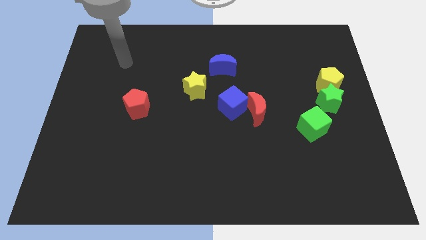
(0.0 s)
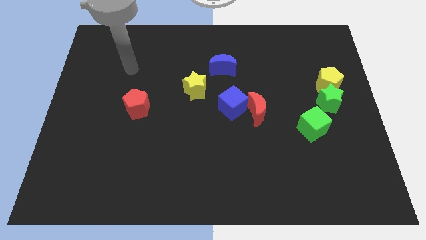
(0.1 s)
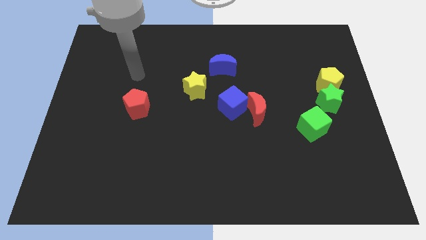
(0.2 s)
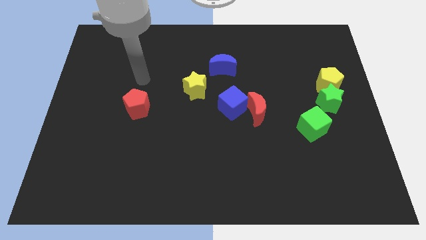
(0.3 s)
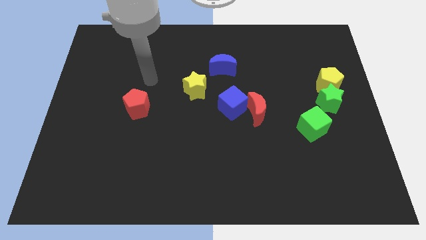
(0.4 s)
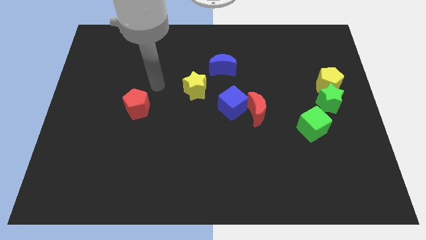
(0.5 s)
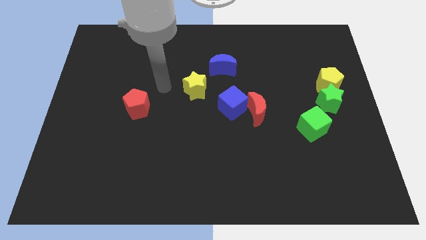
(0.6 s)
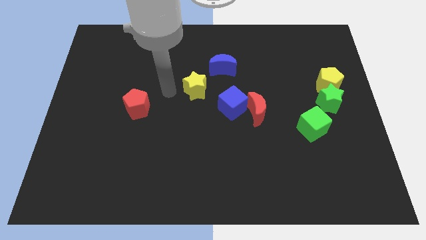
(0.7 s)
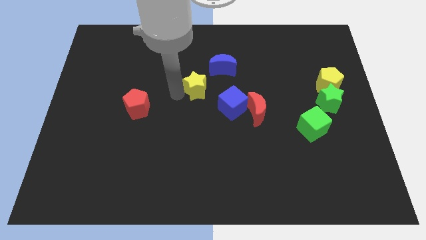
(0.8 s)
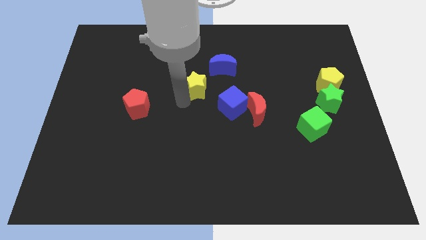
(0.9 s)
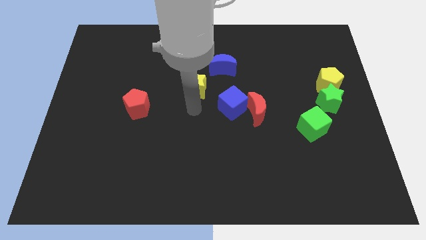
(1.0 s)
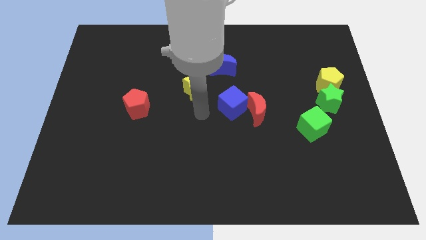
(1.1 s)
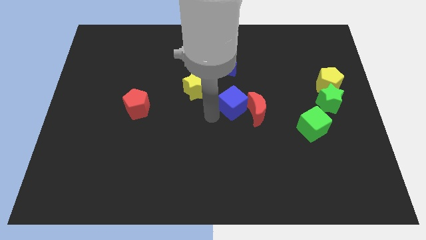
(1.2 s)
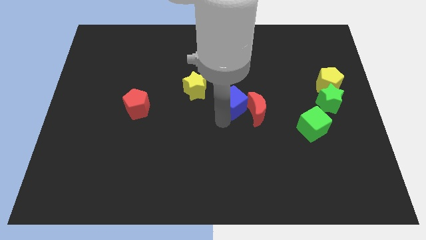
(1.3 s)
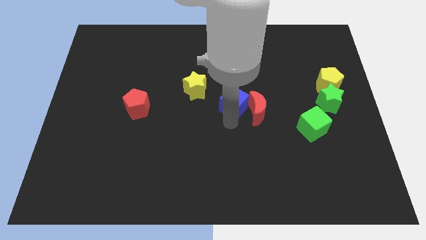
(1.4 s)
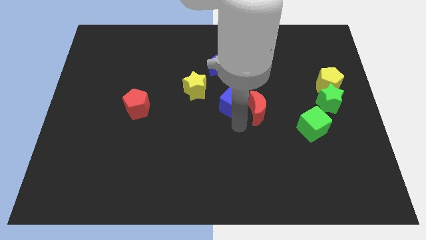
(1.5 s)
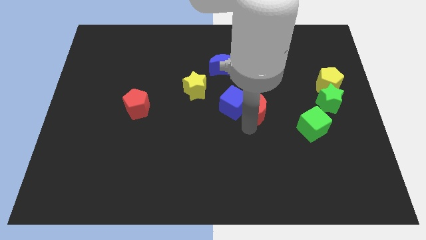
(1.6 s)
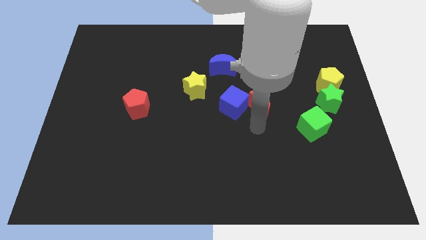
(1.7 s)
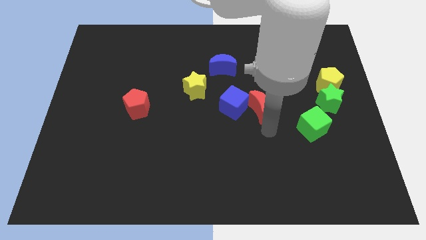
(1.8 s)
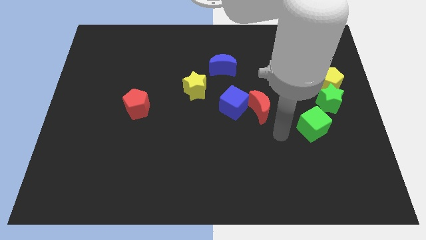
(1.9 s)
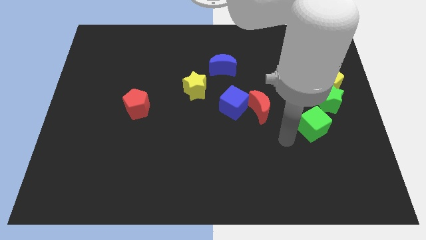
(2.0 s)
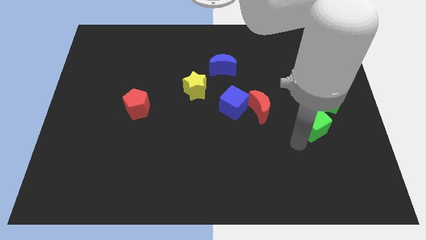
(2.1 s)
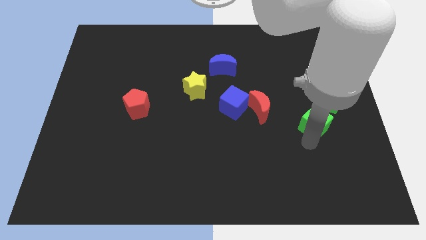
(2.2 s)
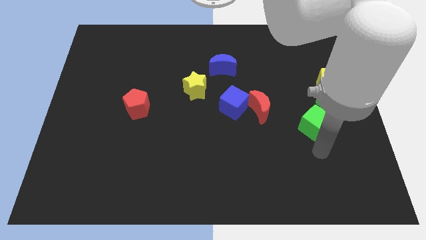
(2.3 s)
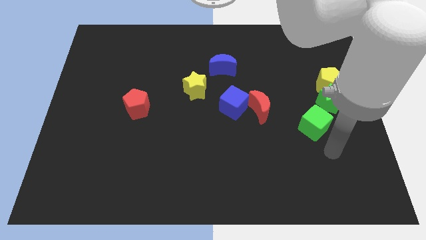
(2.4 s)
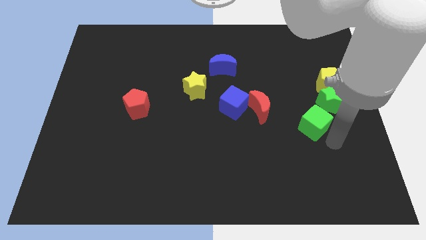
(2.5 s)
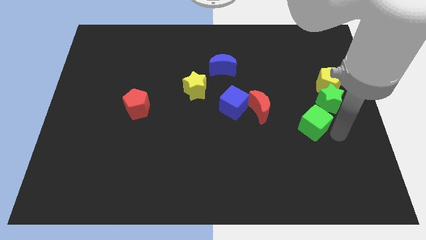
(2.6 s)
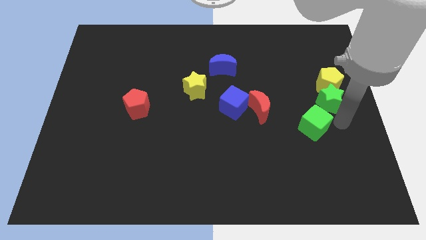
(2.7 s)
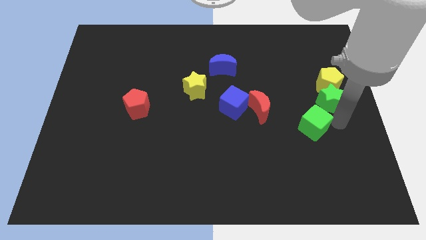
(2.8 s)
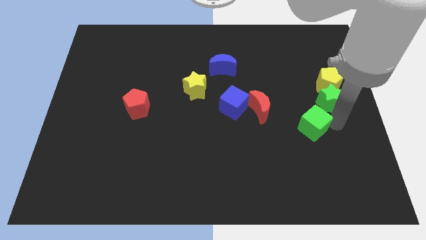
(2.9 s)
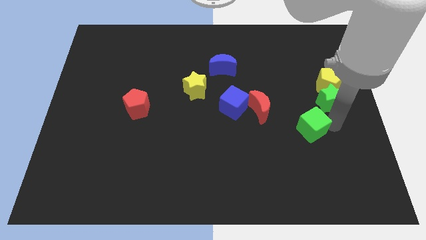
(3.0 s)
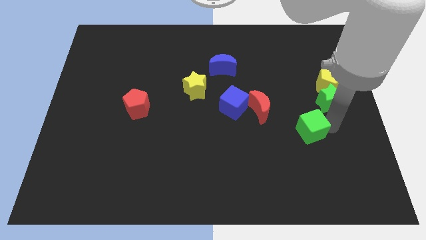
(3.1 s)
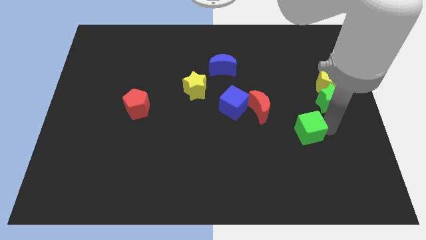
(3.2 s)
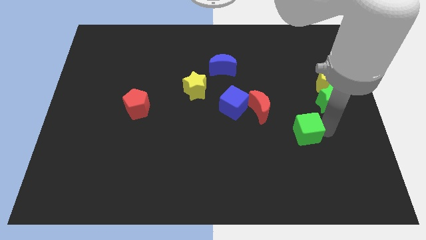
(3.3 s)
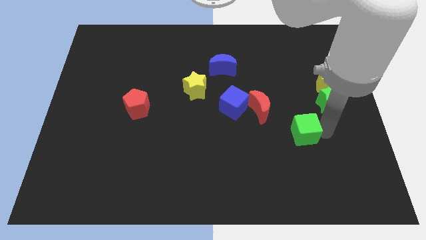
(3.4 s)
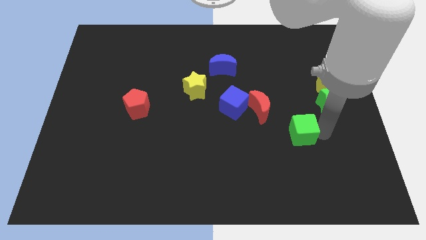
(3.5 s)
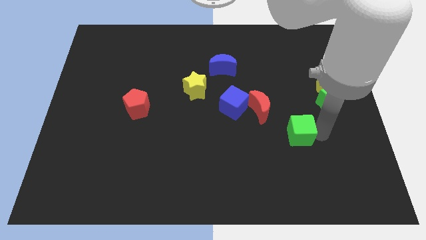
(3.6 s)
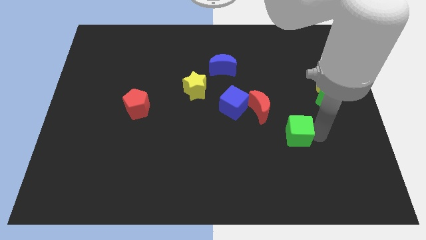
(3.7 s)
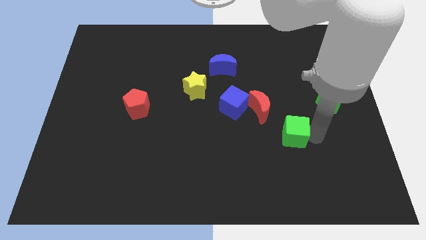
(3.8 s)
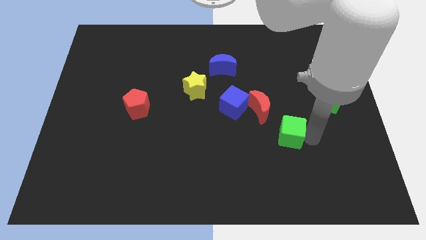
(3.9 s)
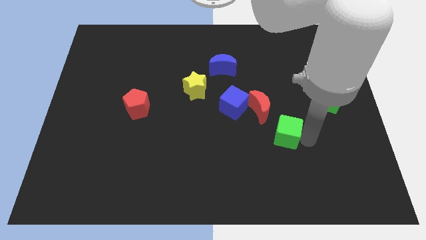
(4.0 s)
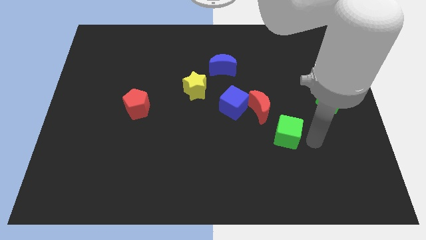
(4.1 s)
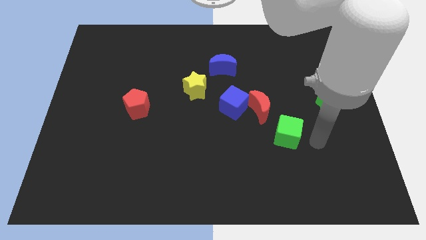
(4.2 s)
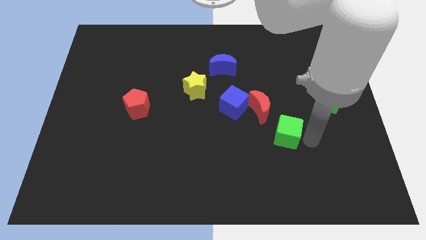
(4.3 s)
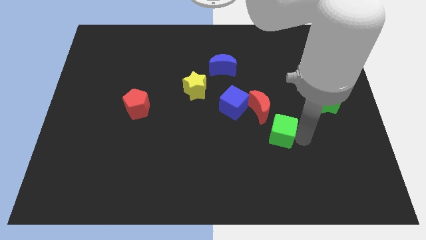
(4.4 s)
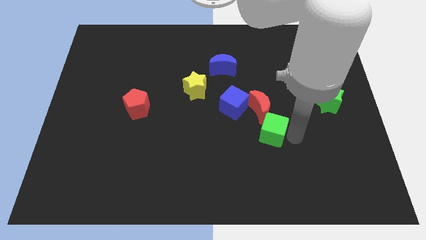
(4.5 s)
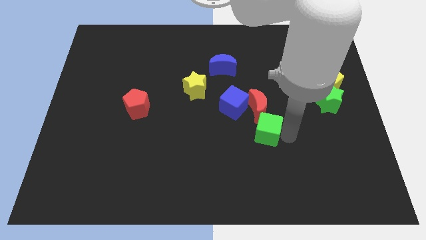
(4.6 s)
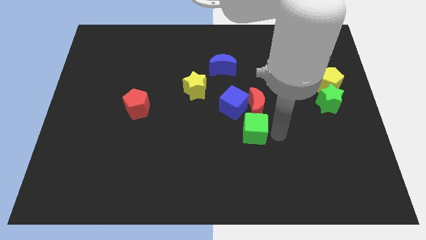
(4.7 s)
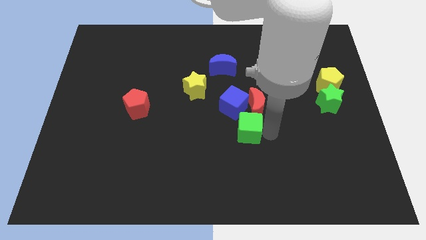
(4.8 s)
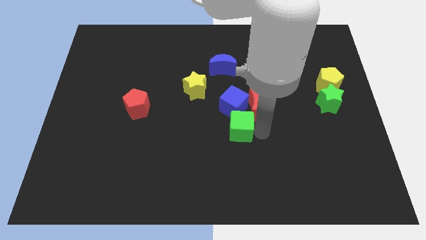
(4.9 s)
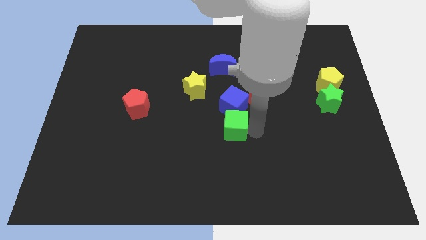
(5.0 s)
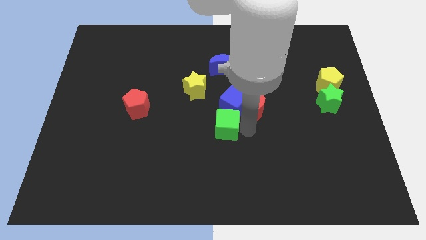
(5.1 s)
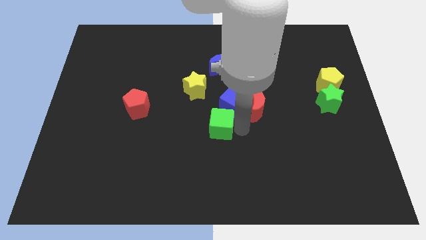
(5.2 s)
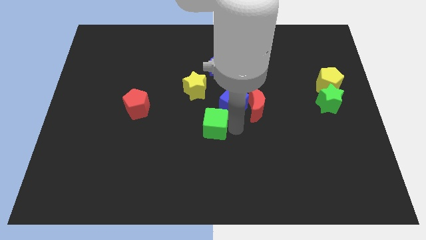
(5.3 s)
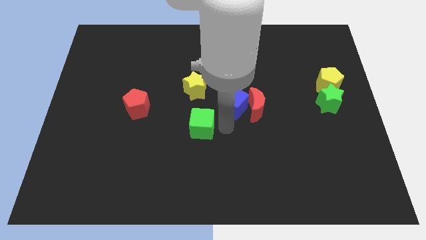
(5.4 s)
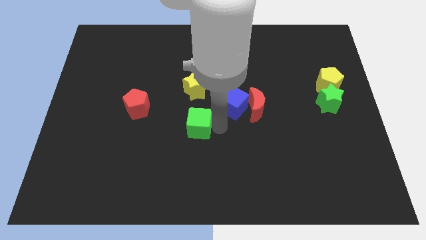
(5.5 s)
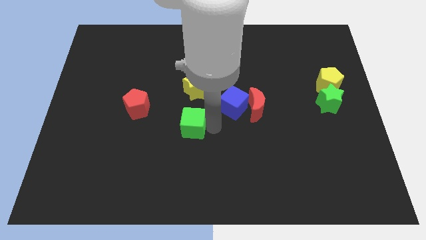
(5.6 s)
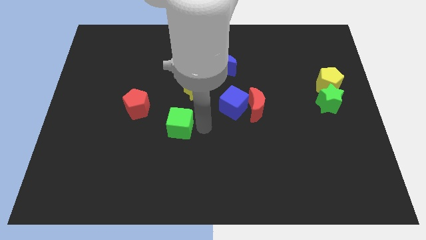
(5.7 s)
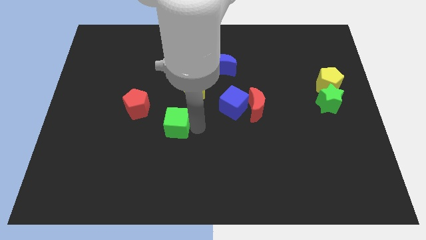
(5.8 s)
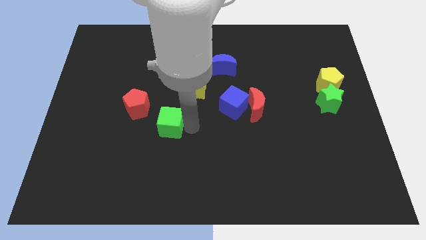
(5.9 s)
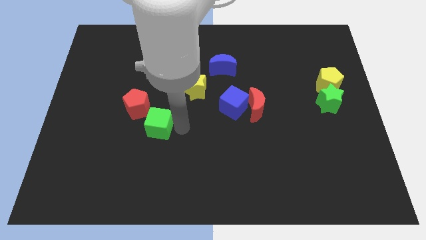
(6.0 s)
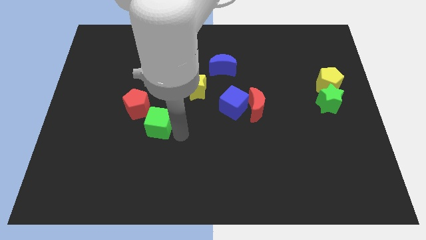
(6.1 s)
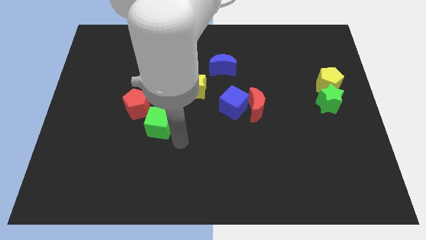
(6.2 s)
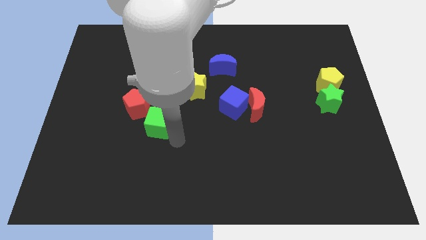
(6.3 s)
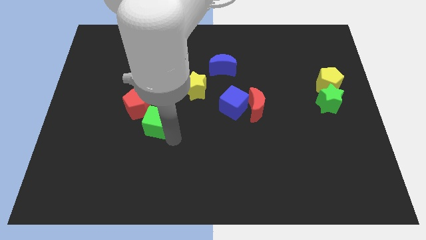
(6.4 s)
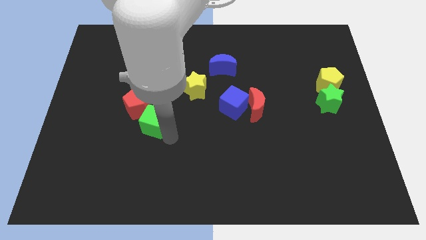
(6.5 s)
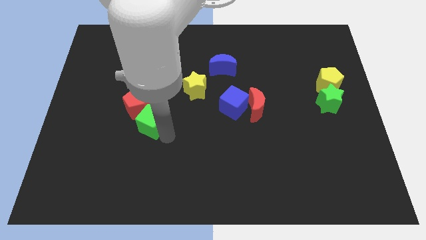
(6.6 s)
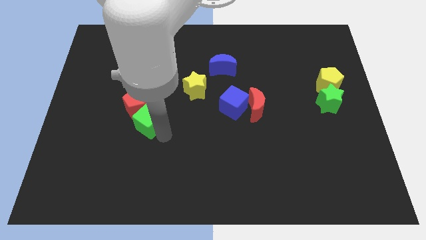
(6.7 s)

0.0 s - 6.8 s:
slide the green cube towards the red pentagon

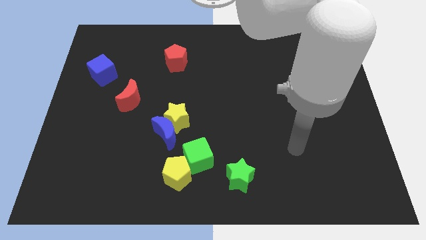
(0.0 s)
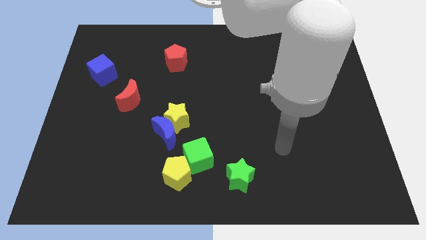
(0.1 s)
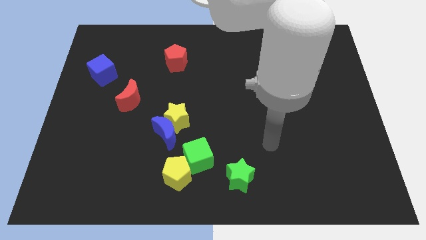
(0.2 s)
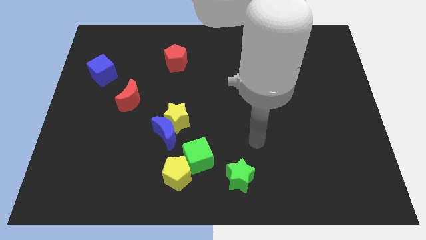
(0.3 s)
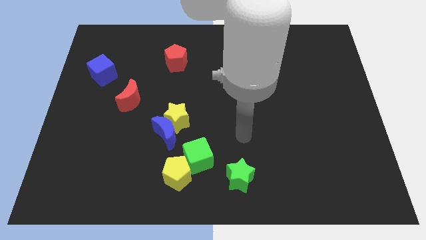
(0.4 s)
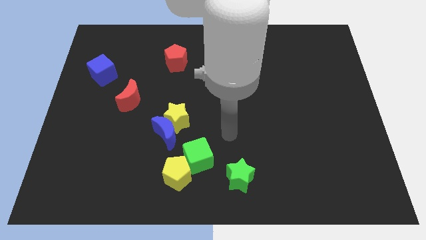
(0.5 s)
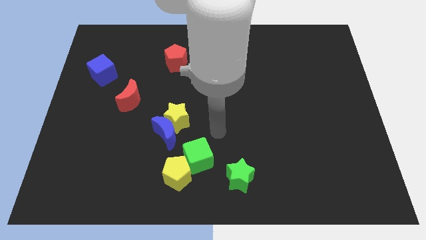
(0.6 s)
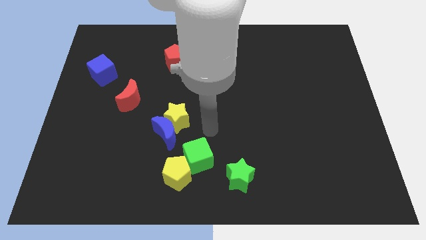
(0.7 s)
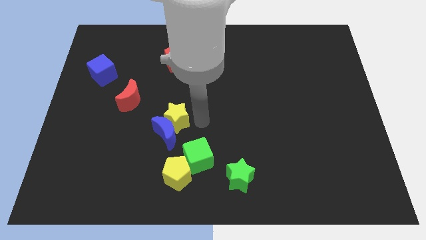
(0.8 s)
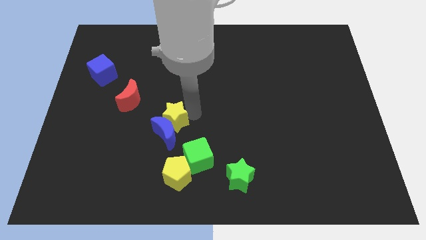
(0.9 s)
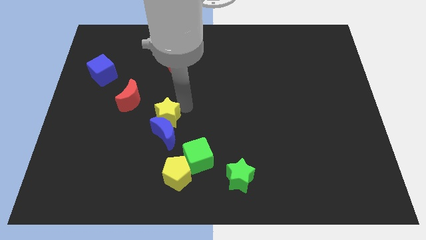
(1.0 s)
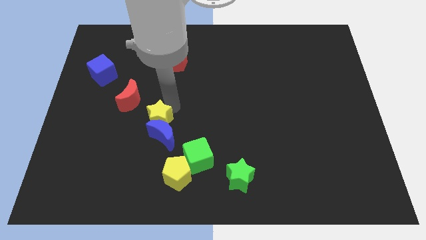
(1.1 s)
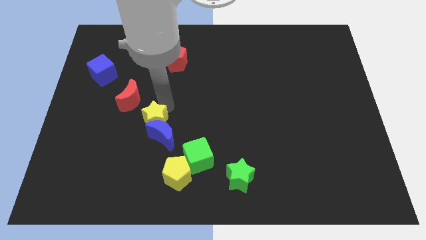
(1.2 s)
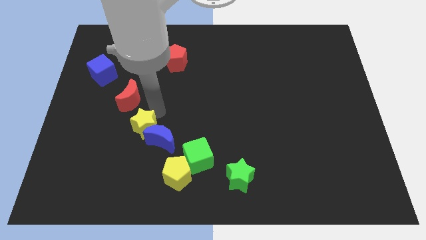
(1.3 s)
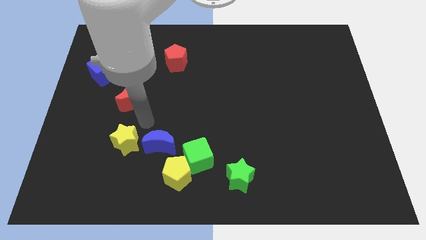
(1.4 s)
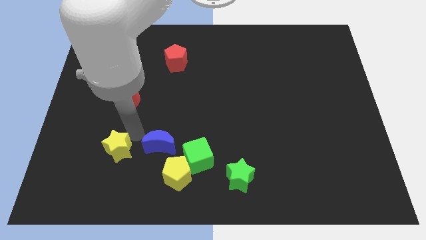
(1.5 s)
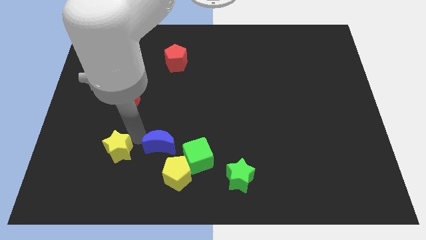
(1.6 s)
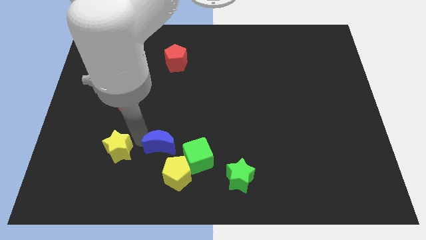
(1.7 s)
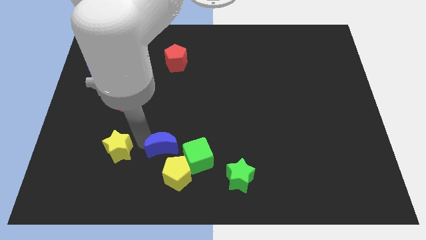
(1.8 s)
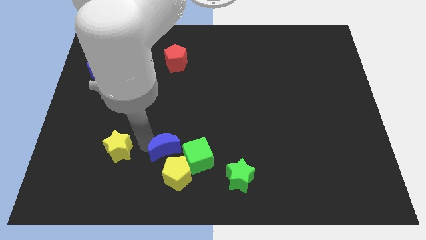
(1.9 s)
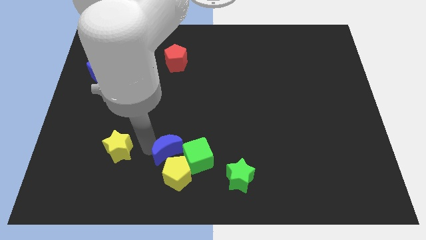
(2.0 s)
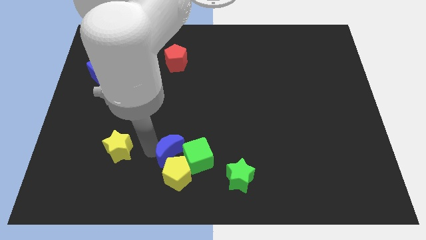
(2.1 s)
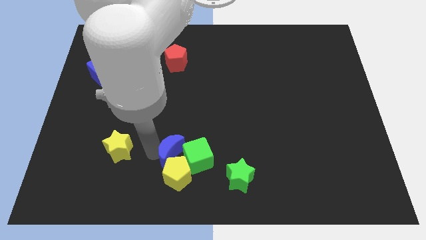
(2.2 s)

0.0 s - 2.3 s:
put the blue moon towards the green cube
